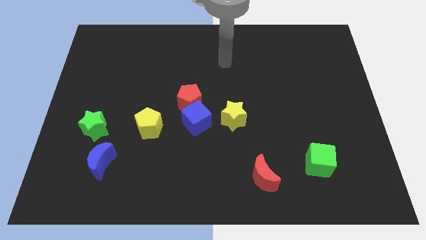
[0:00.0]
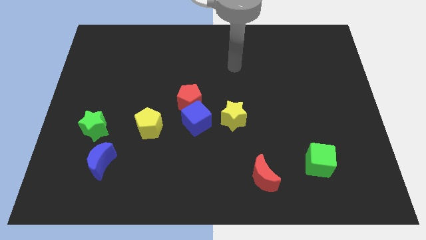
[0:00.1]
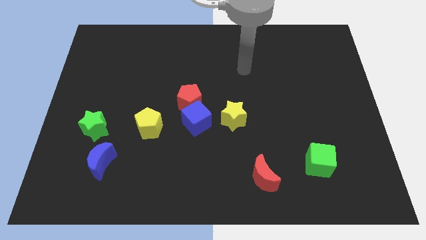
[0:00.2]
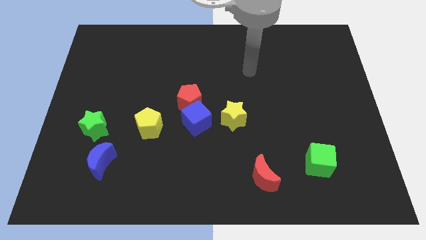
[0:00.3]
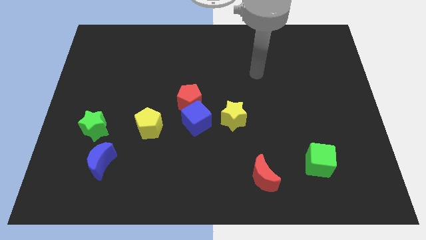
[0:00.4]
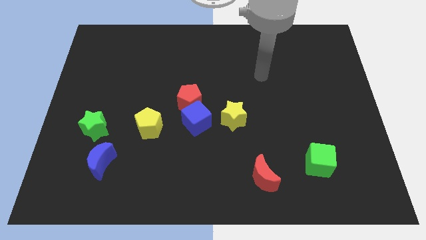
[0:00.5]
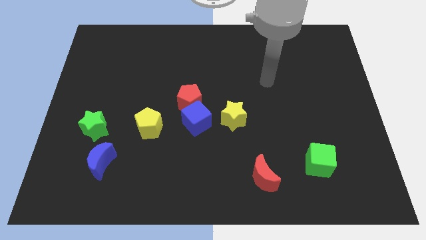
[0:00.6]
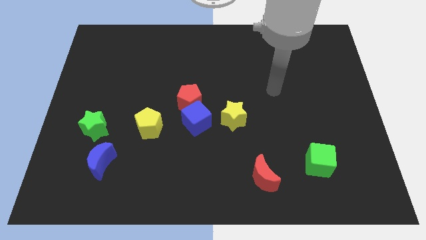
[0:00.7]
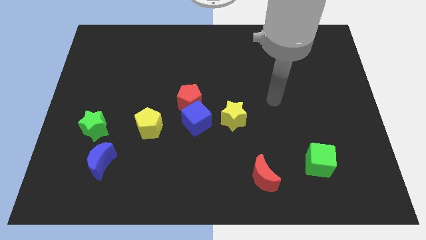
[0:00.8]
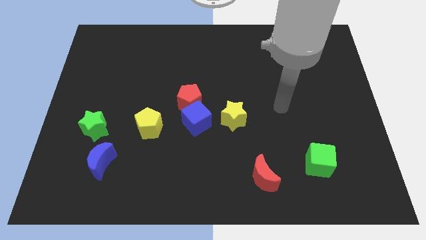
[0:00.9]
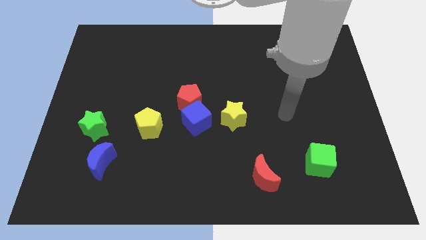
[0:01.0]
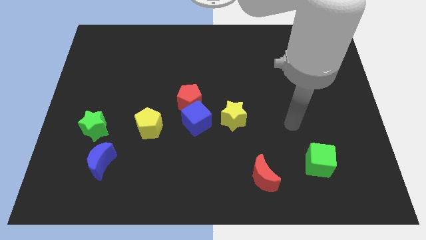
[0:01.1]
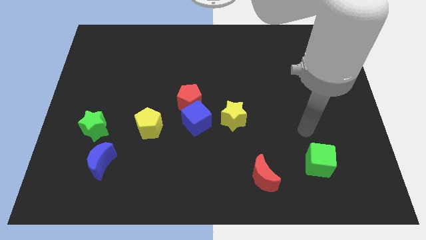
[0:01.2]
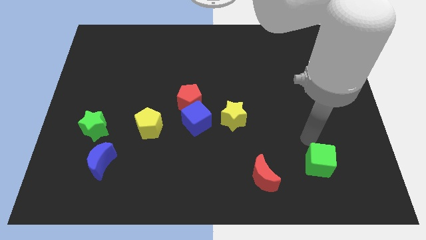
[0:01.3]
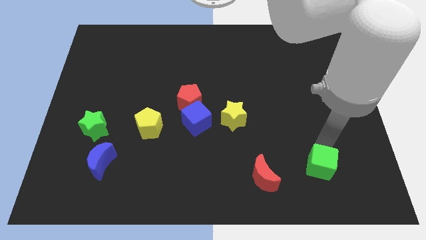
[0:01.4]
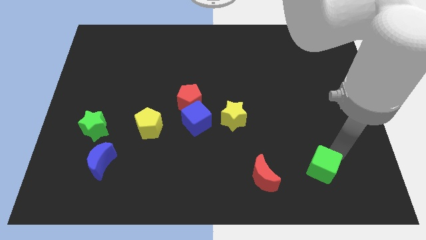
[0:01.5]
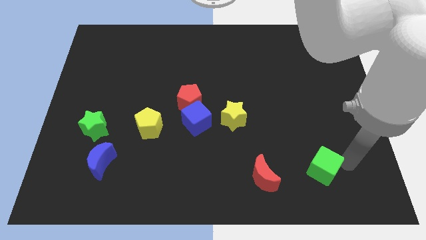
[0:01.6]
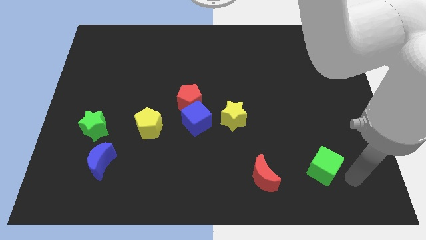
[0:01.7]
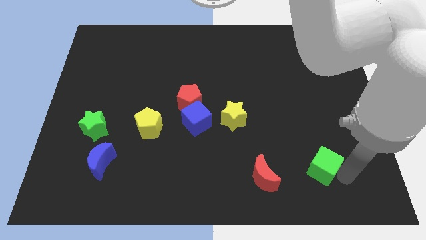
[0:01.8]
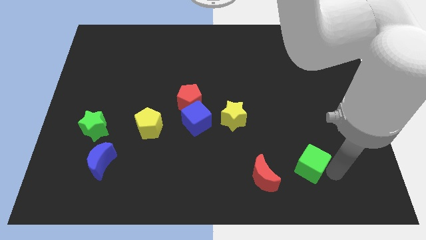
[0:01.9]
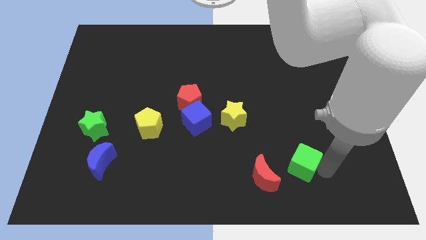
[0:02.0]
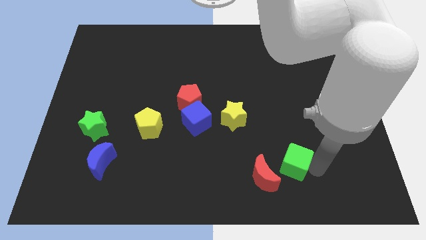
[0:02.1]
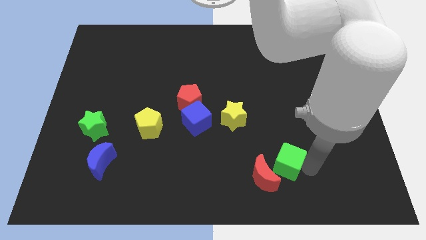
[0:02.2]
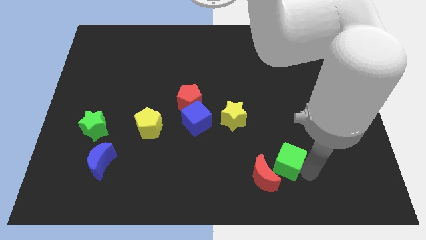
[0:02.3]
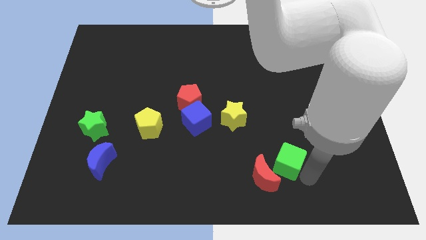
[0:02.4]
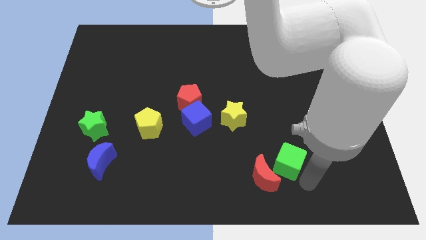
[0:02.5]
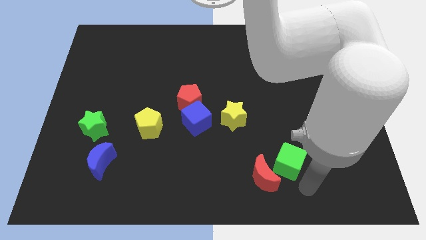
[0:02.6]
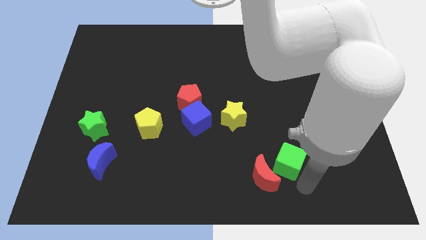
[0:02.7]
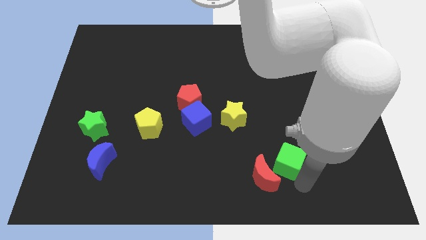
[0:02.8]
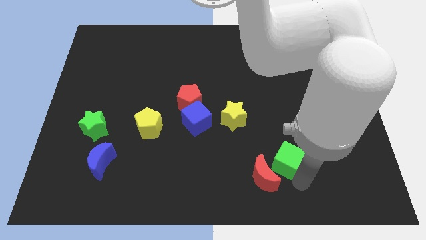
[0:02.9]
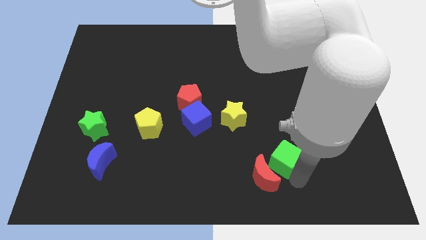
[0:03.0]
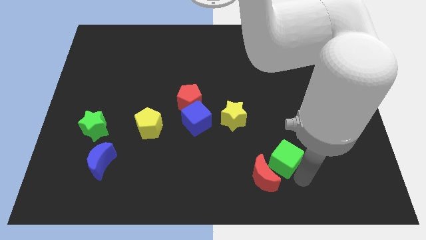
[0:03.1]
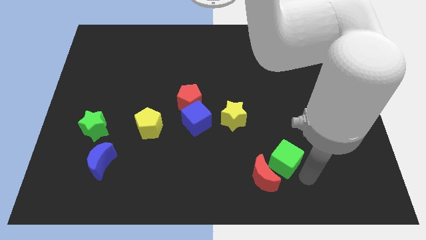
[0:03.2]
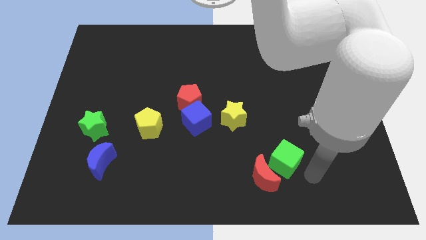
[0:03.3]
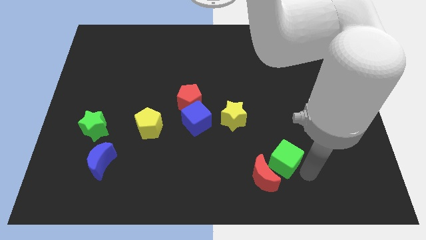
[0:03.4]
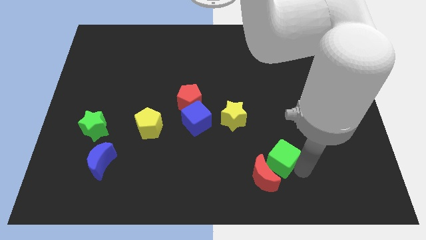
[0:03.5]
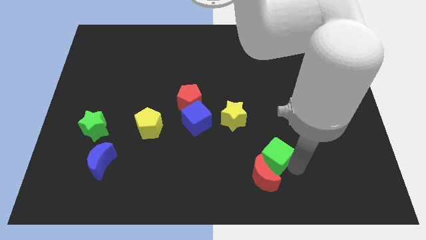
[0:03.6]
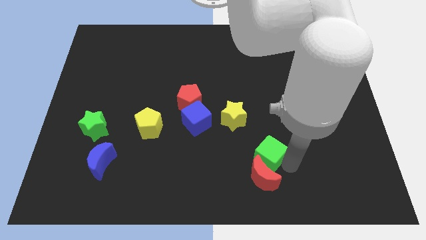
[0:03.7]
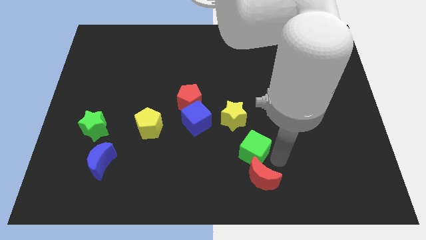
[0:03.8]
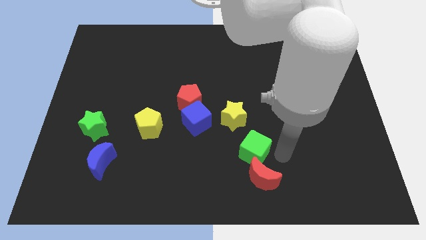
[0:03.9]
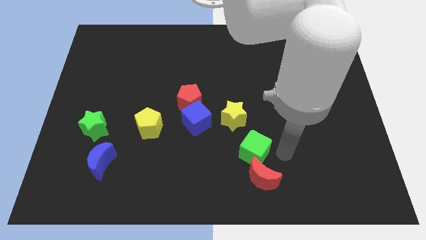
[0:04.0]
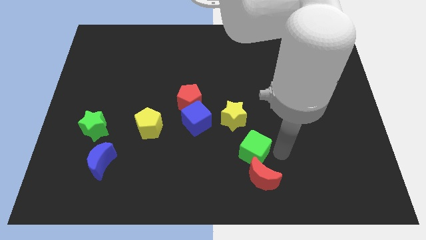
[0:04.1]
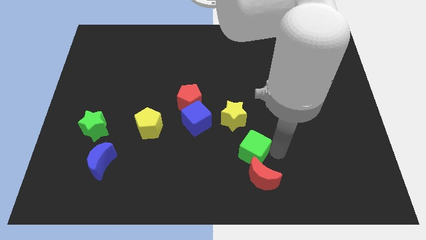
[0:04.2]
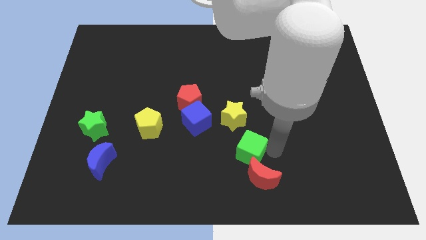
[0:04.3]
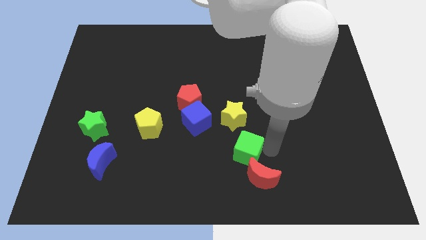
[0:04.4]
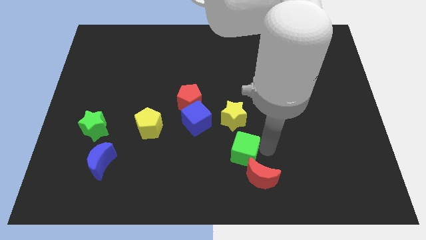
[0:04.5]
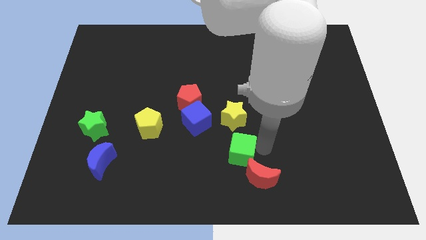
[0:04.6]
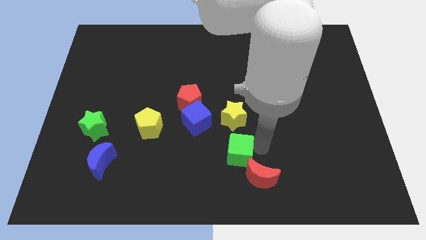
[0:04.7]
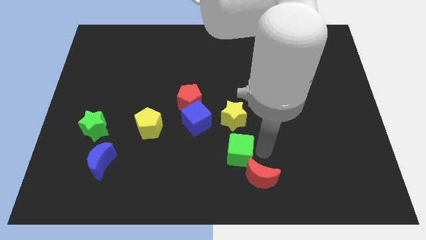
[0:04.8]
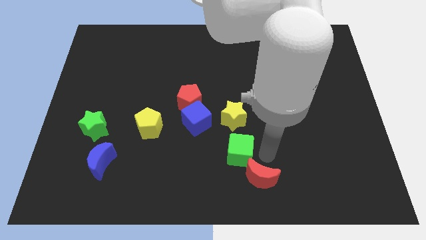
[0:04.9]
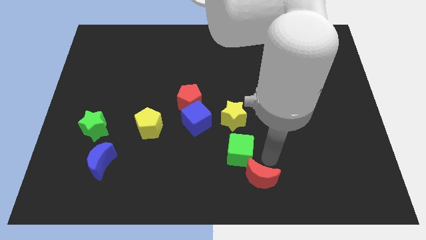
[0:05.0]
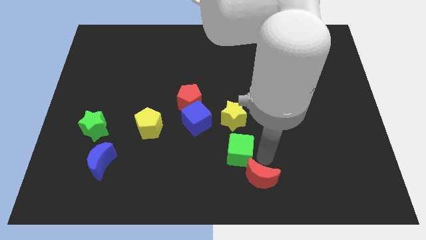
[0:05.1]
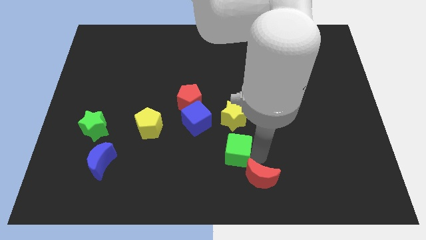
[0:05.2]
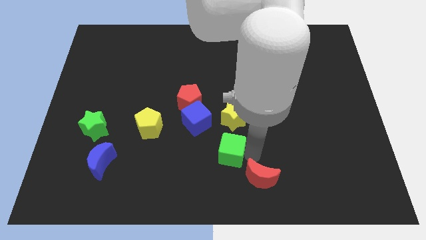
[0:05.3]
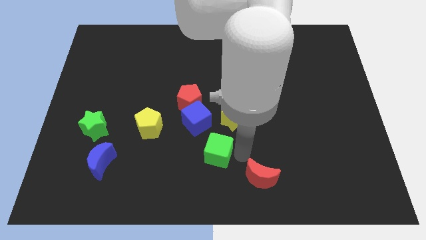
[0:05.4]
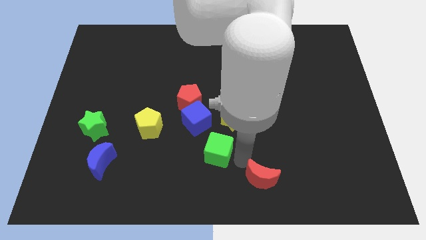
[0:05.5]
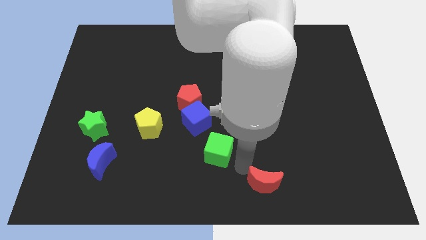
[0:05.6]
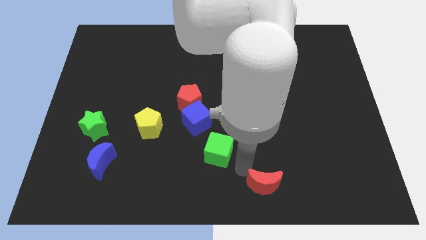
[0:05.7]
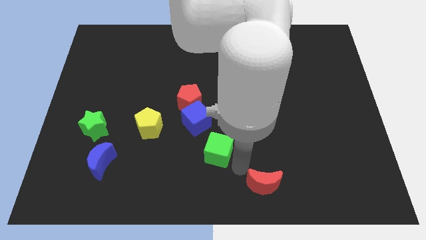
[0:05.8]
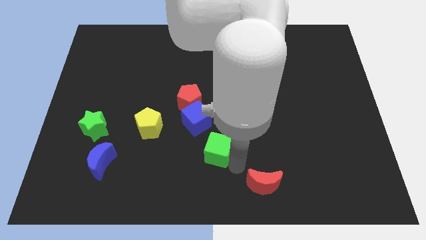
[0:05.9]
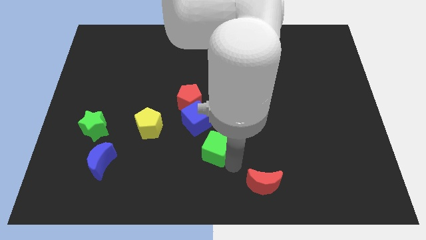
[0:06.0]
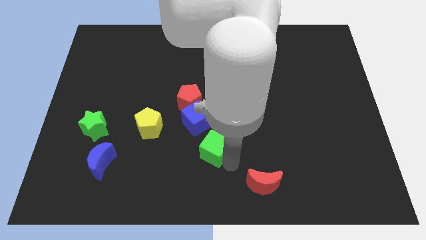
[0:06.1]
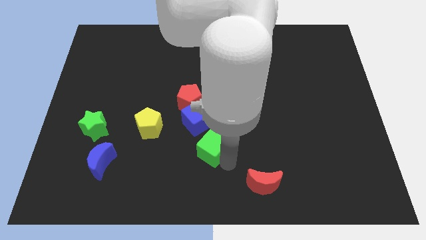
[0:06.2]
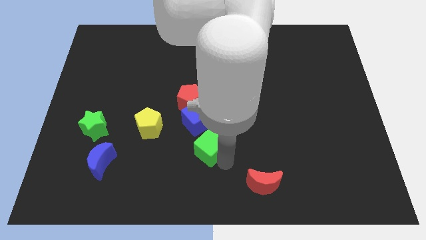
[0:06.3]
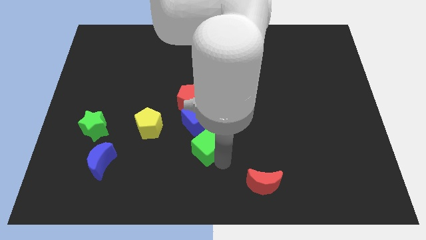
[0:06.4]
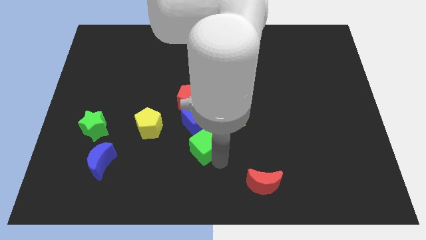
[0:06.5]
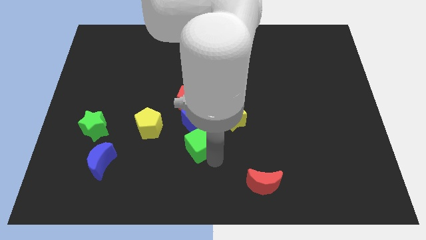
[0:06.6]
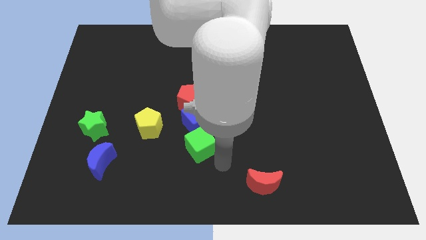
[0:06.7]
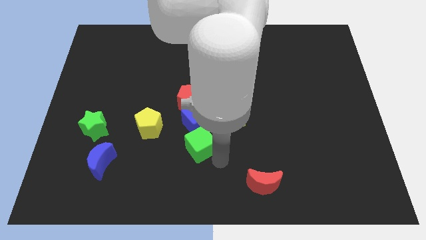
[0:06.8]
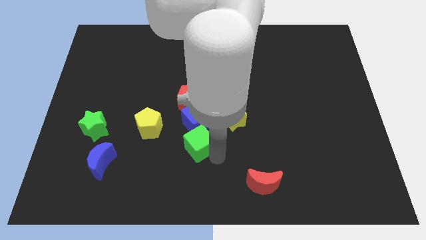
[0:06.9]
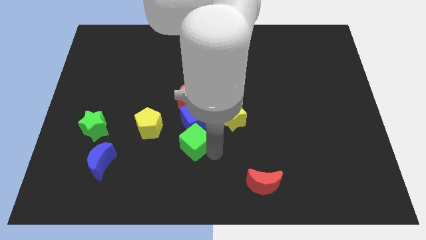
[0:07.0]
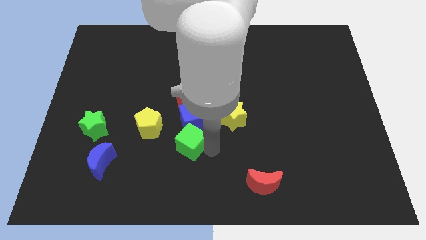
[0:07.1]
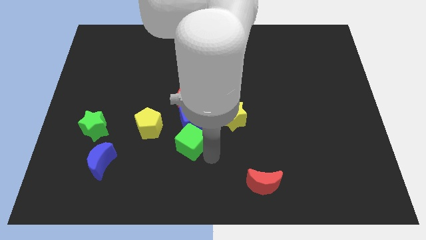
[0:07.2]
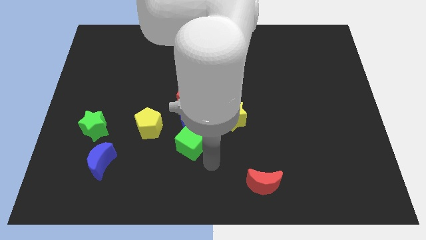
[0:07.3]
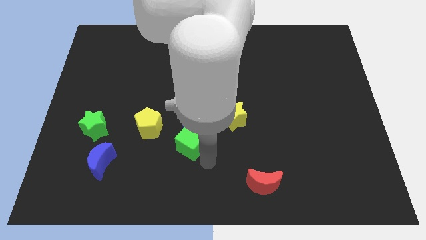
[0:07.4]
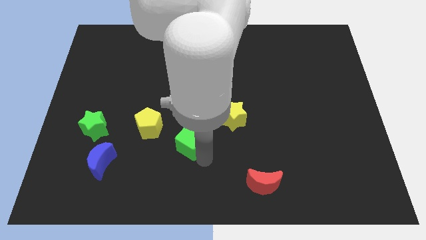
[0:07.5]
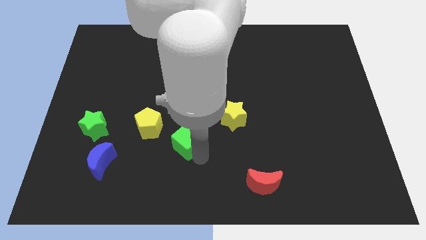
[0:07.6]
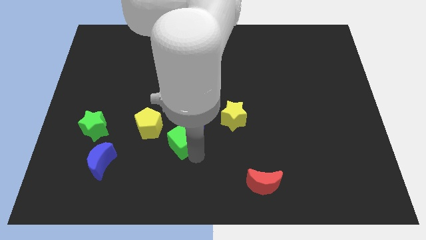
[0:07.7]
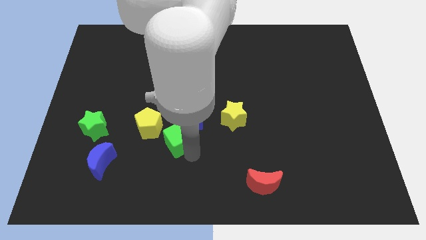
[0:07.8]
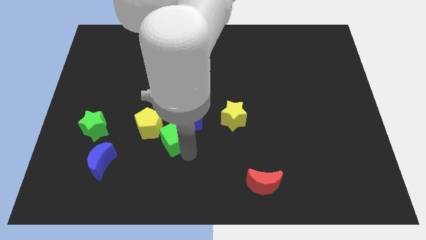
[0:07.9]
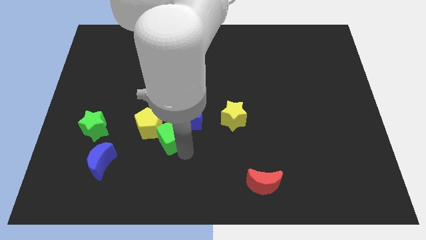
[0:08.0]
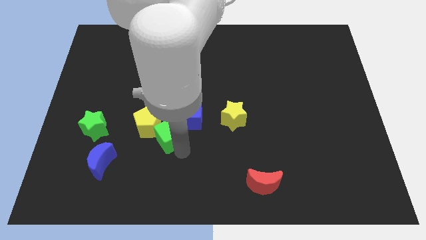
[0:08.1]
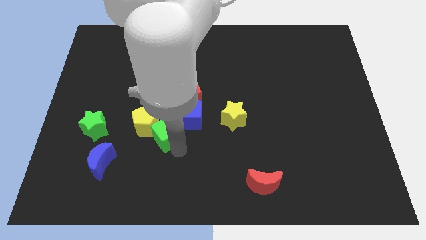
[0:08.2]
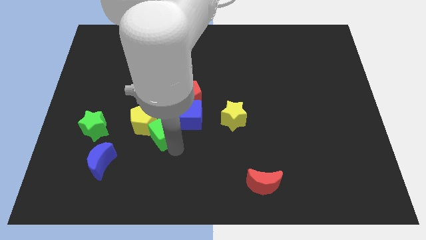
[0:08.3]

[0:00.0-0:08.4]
move the green cube to the bottom left side of the red pentagon
